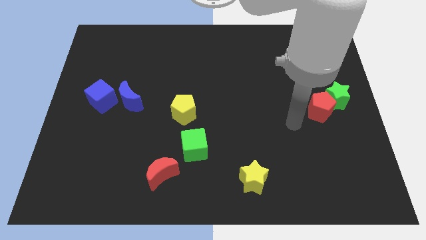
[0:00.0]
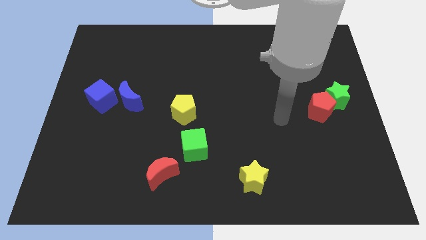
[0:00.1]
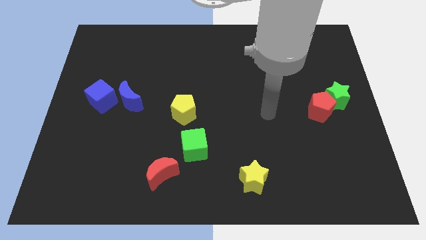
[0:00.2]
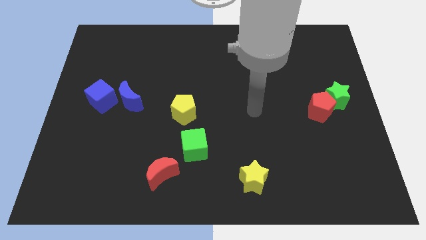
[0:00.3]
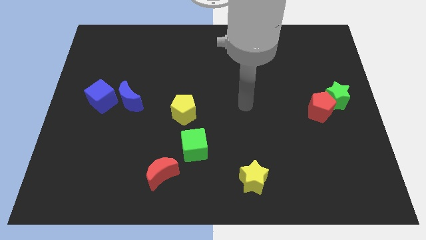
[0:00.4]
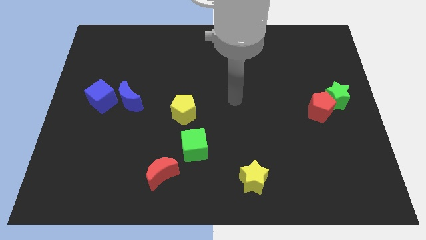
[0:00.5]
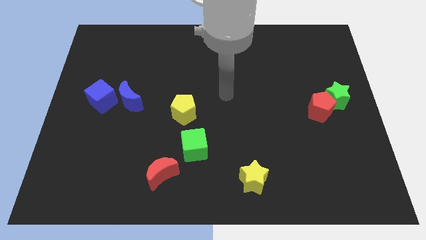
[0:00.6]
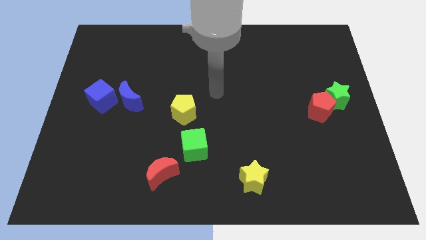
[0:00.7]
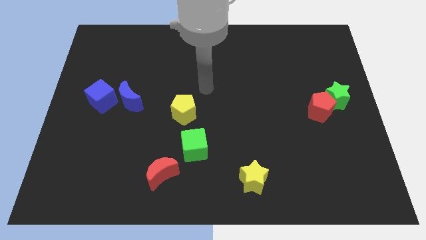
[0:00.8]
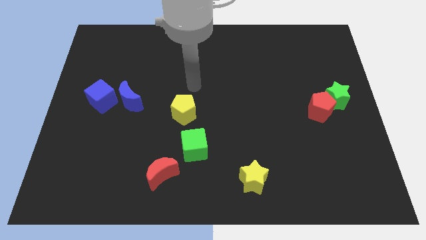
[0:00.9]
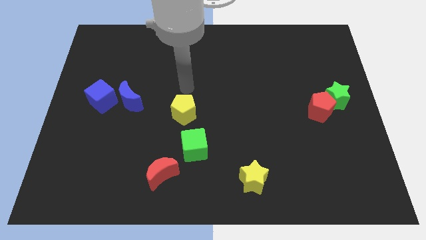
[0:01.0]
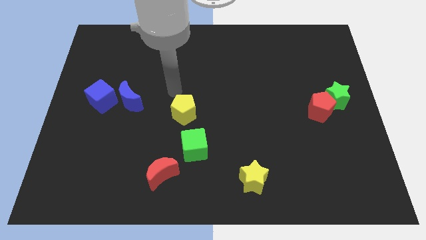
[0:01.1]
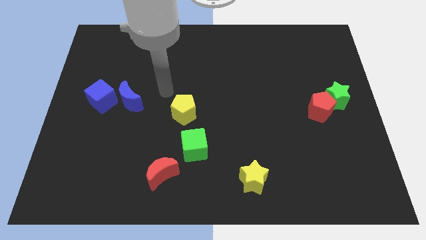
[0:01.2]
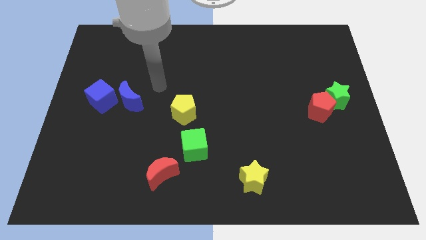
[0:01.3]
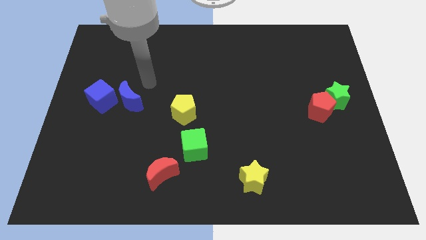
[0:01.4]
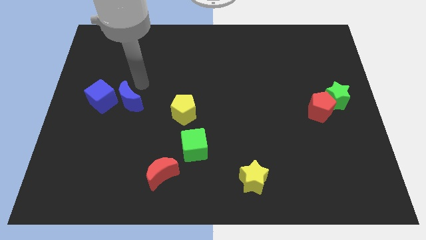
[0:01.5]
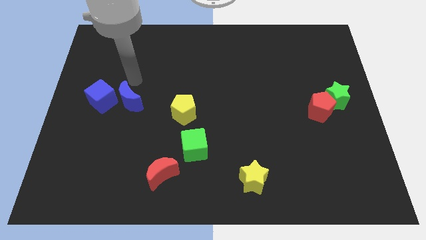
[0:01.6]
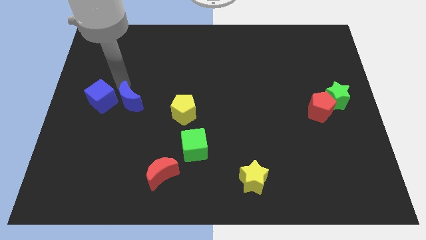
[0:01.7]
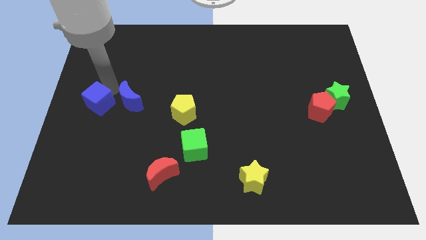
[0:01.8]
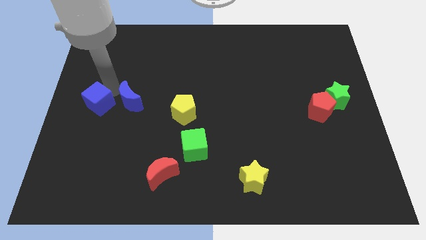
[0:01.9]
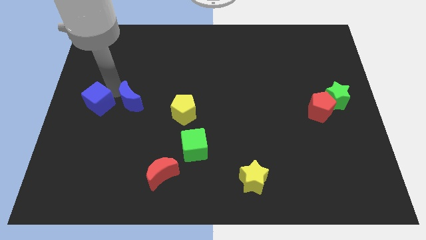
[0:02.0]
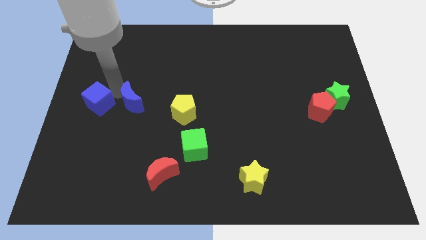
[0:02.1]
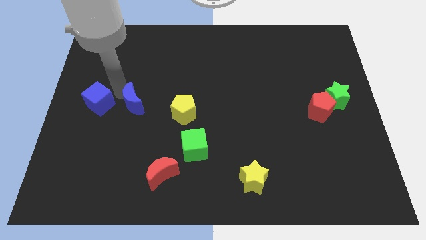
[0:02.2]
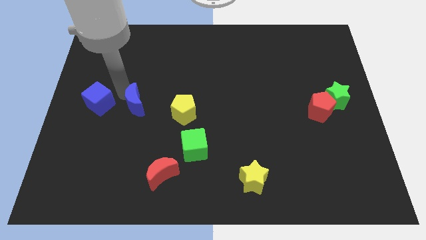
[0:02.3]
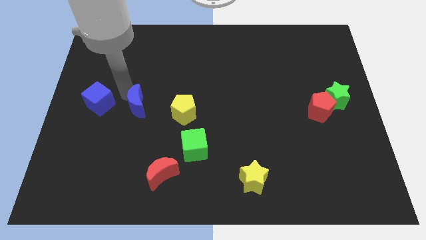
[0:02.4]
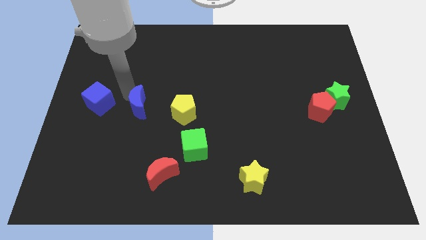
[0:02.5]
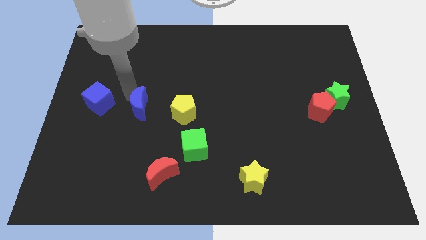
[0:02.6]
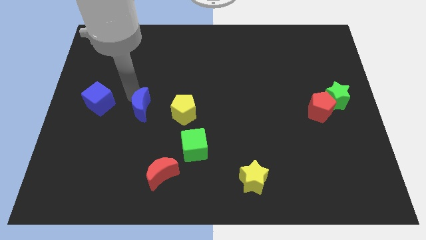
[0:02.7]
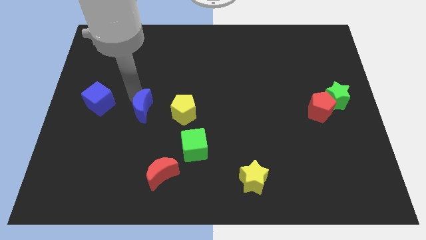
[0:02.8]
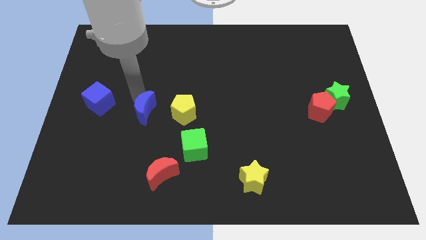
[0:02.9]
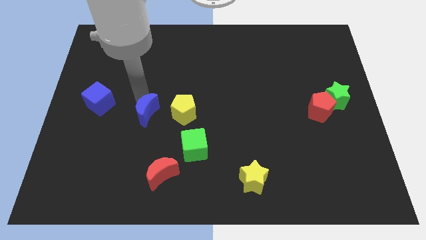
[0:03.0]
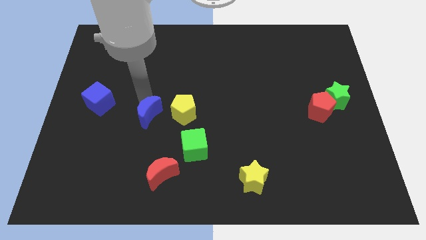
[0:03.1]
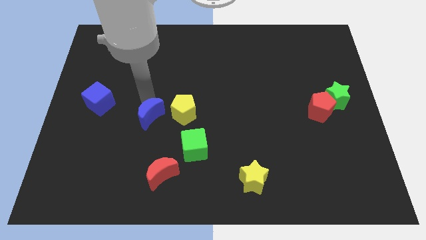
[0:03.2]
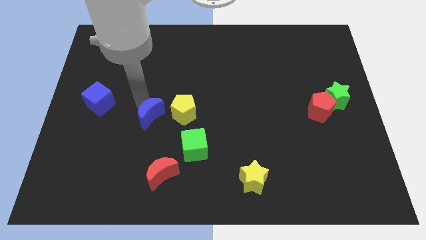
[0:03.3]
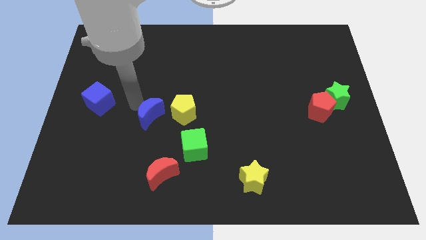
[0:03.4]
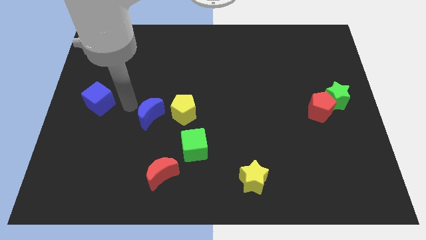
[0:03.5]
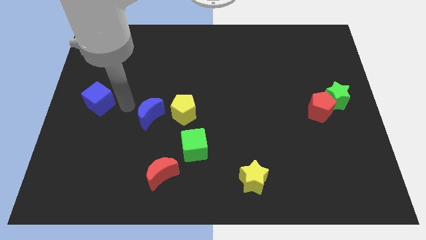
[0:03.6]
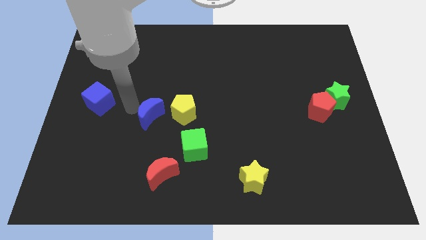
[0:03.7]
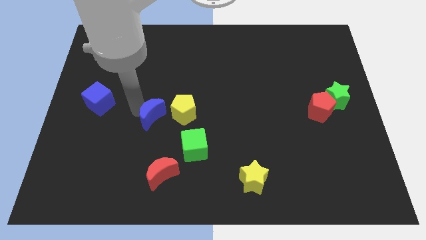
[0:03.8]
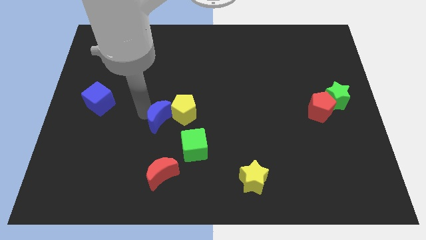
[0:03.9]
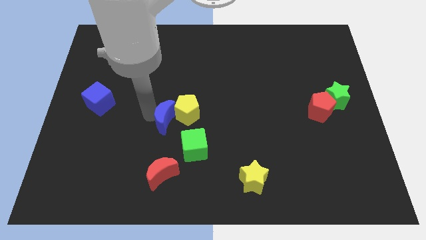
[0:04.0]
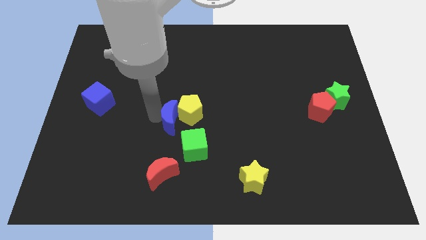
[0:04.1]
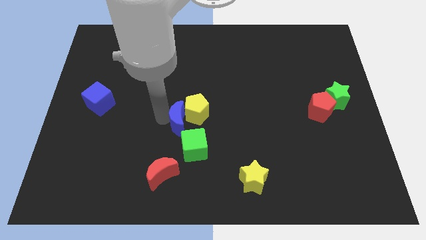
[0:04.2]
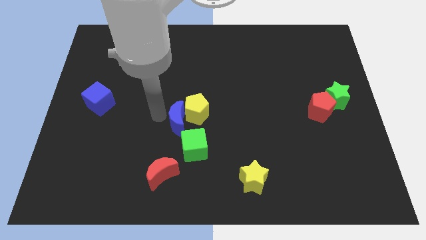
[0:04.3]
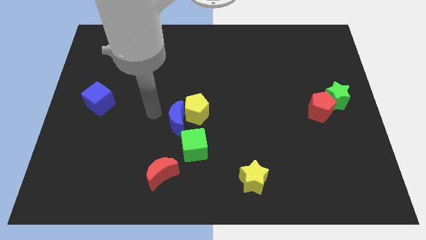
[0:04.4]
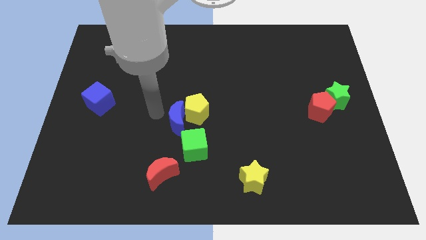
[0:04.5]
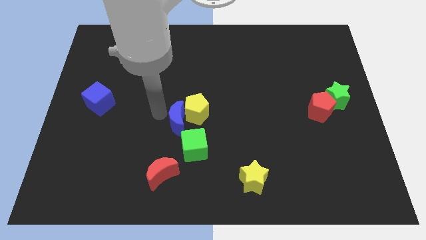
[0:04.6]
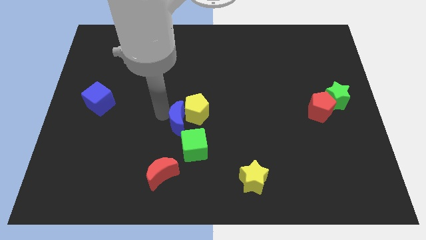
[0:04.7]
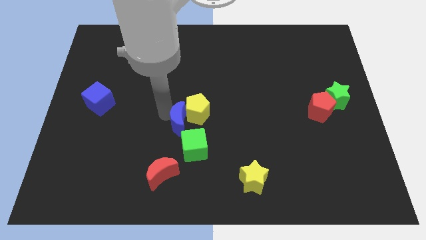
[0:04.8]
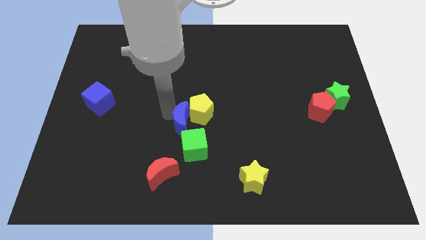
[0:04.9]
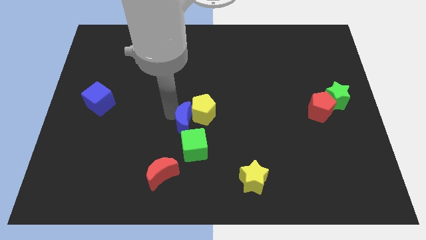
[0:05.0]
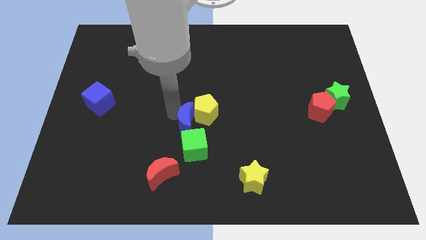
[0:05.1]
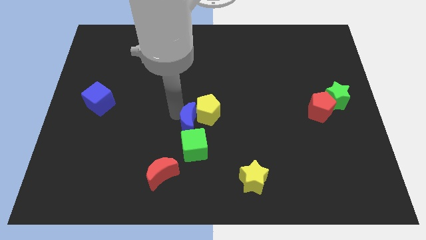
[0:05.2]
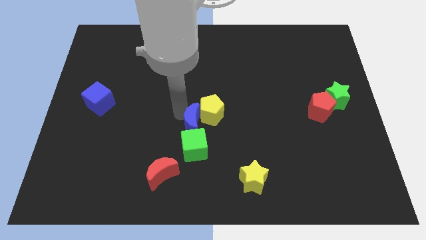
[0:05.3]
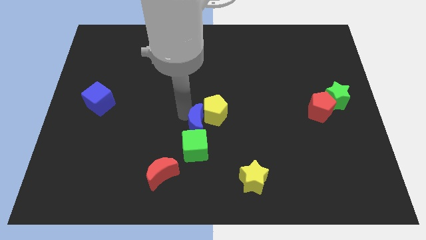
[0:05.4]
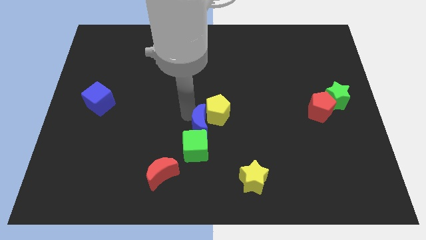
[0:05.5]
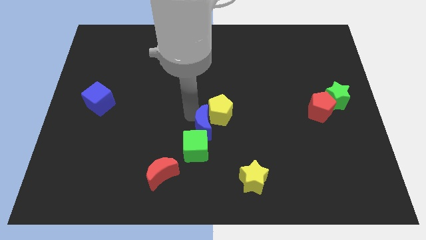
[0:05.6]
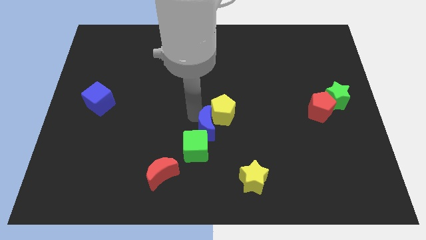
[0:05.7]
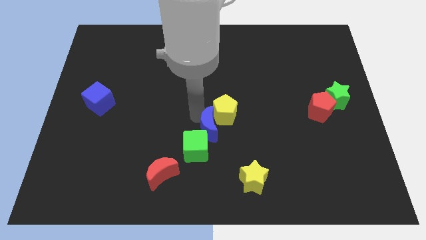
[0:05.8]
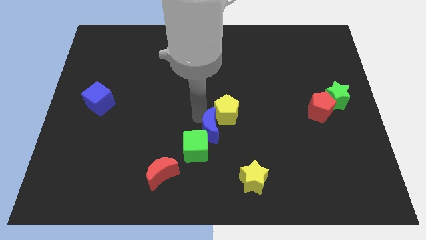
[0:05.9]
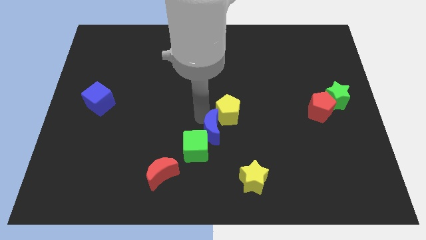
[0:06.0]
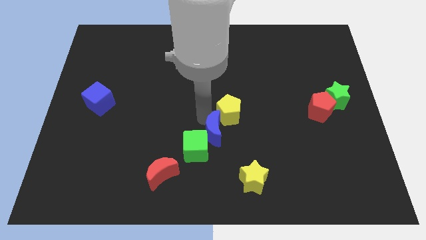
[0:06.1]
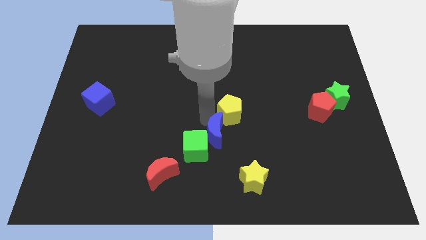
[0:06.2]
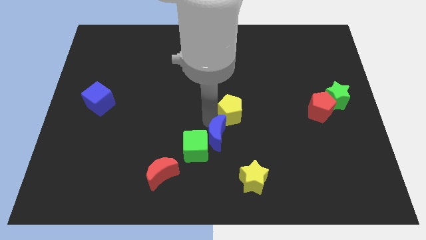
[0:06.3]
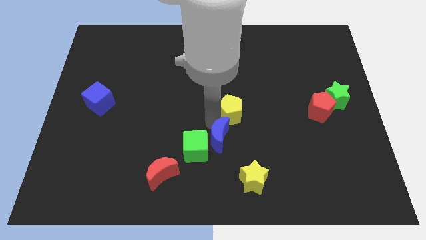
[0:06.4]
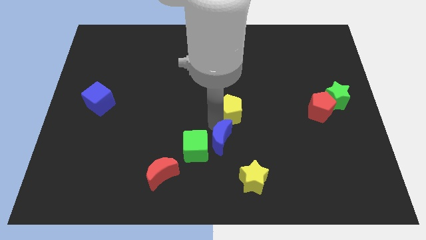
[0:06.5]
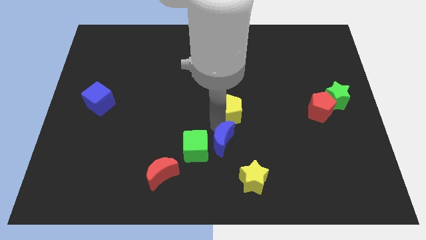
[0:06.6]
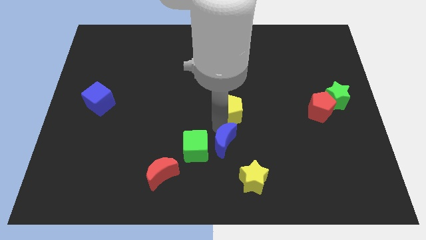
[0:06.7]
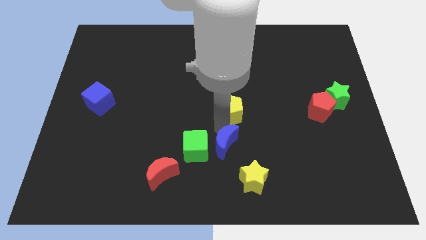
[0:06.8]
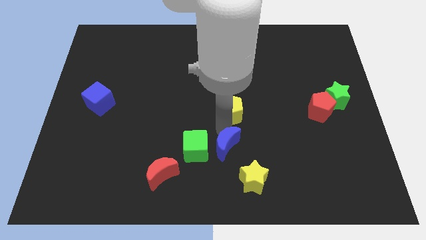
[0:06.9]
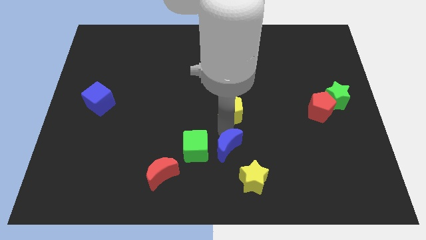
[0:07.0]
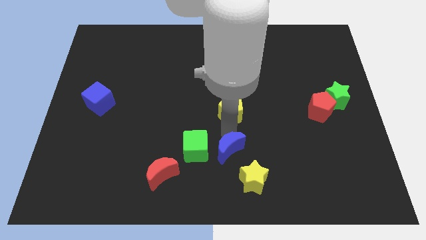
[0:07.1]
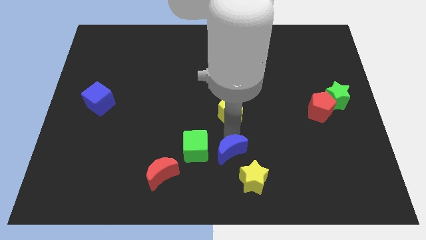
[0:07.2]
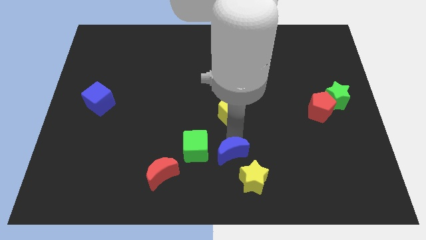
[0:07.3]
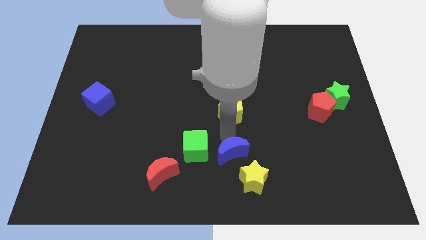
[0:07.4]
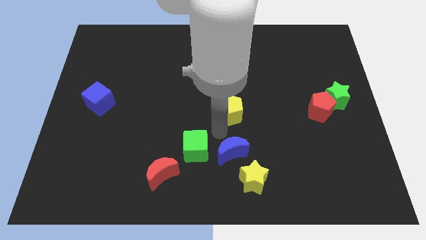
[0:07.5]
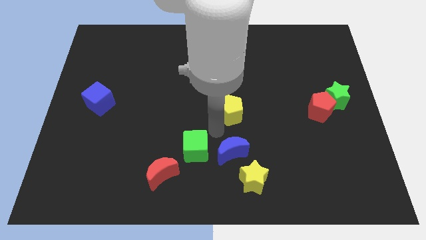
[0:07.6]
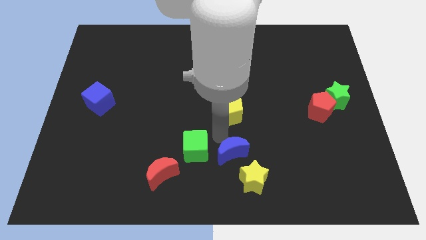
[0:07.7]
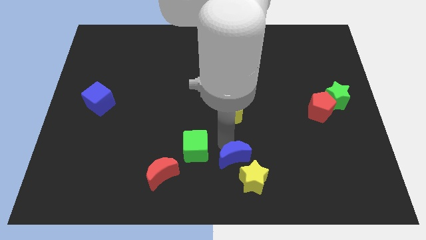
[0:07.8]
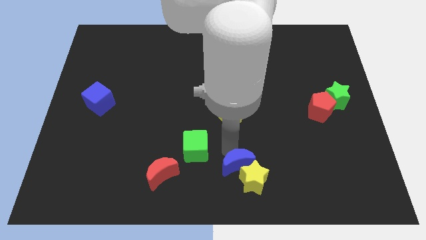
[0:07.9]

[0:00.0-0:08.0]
slide the blue moon towards the yellow star
